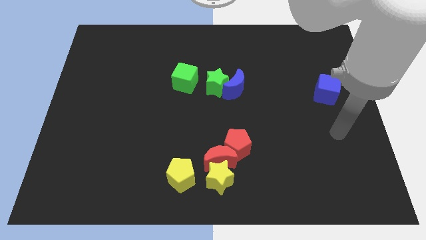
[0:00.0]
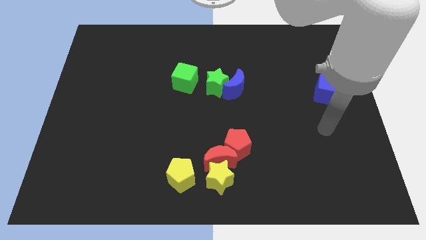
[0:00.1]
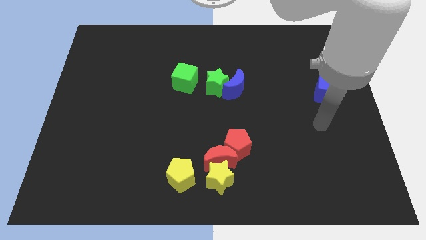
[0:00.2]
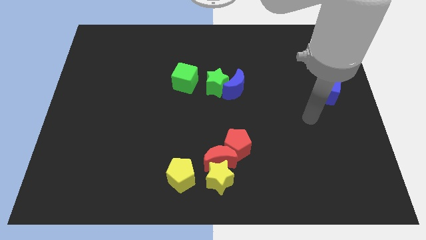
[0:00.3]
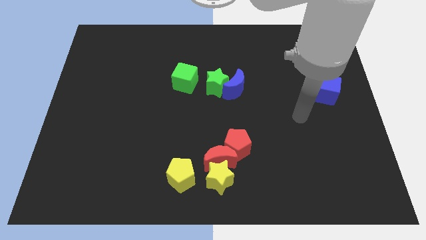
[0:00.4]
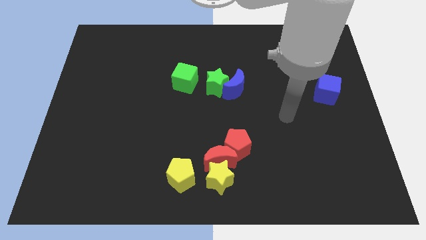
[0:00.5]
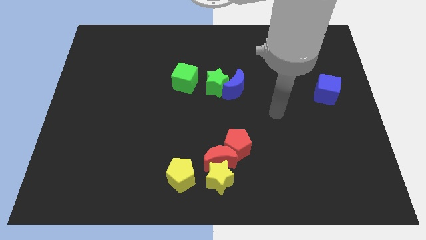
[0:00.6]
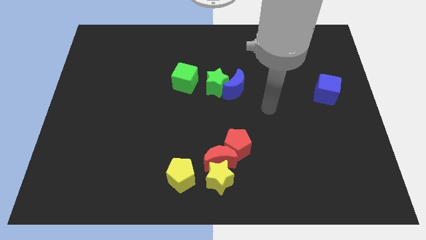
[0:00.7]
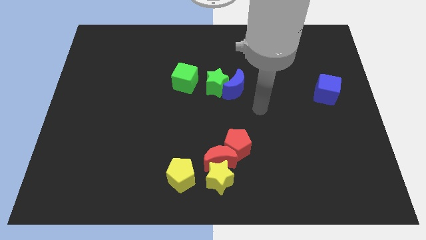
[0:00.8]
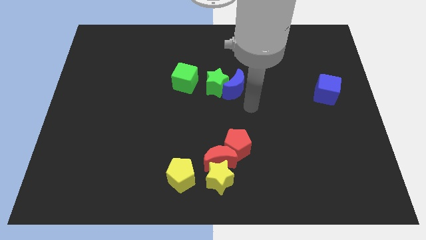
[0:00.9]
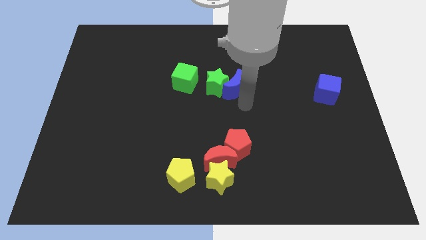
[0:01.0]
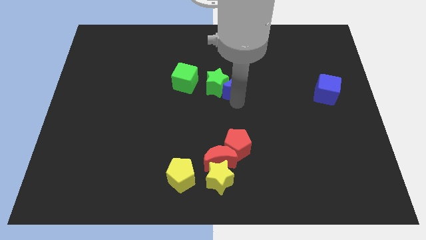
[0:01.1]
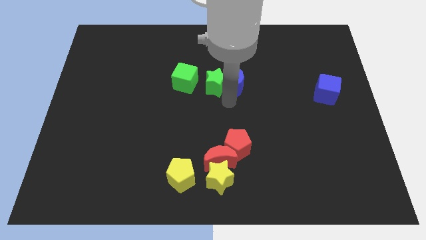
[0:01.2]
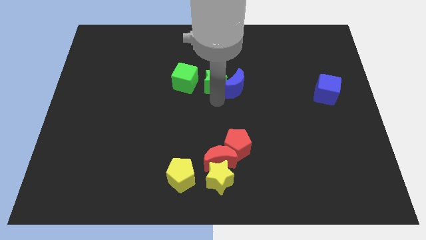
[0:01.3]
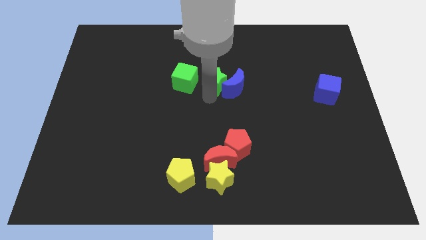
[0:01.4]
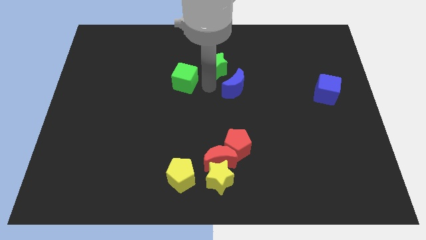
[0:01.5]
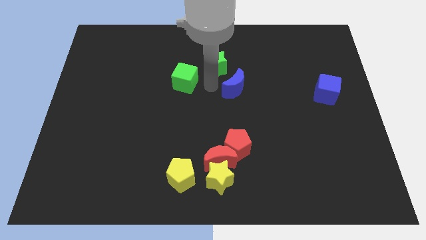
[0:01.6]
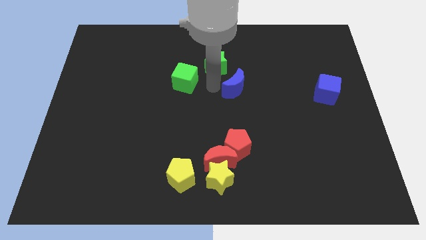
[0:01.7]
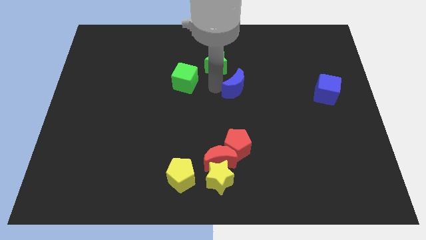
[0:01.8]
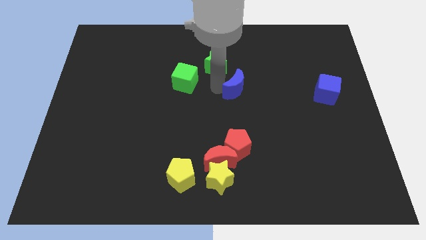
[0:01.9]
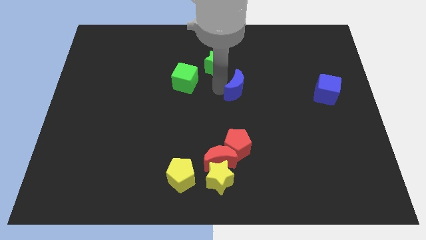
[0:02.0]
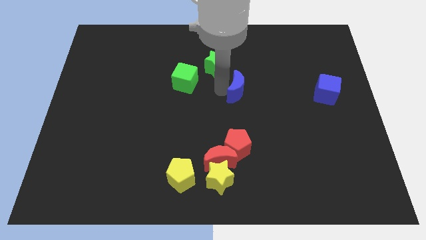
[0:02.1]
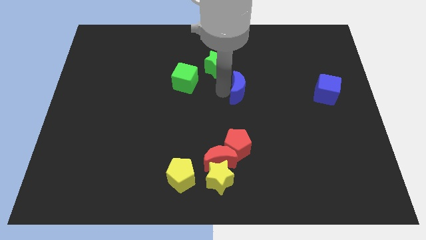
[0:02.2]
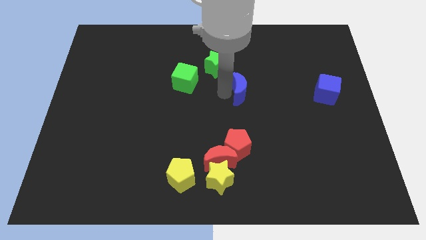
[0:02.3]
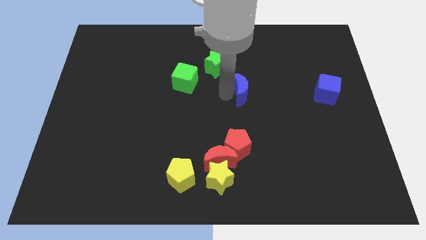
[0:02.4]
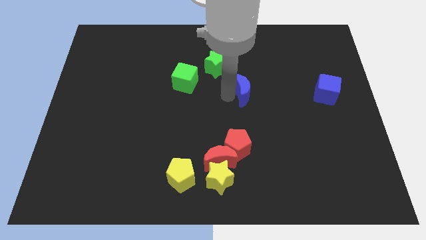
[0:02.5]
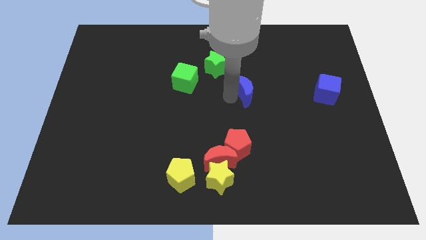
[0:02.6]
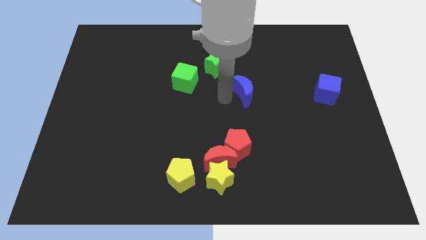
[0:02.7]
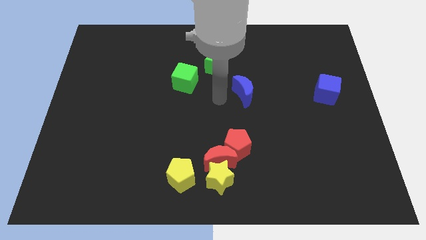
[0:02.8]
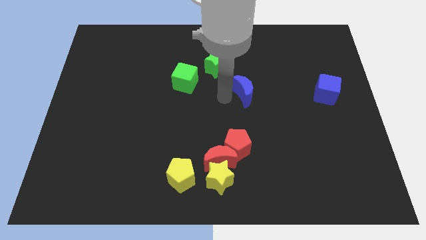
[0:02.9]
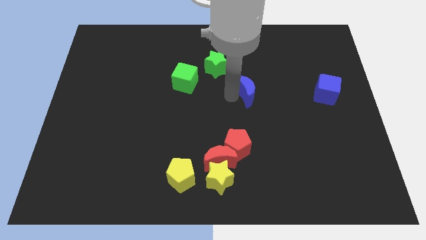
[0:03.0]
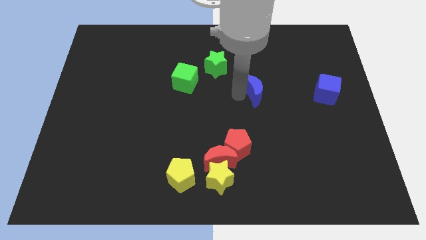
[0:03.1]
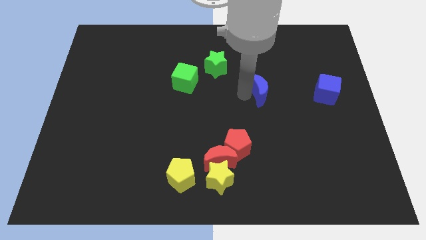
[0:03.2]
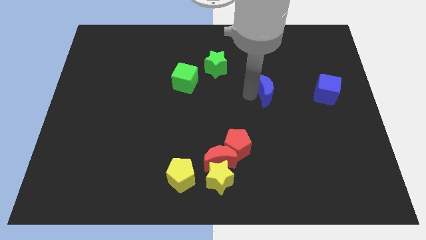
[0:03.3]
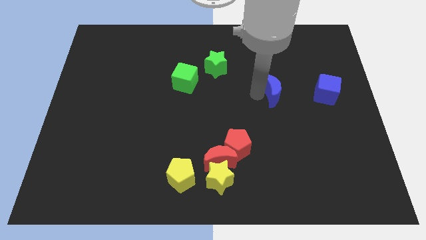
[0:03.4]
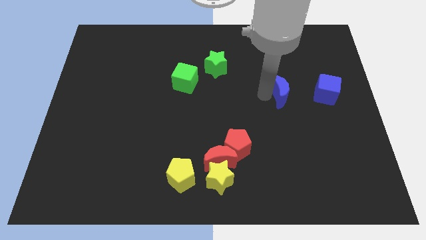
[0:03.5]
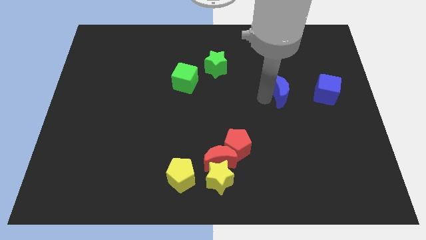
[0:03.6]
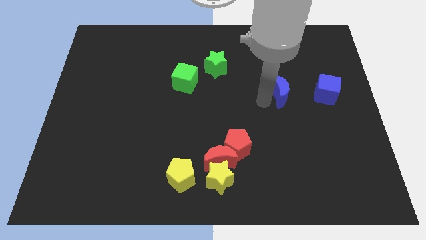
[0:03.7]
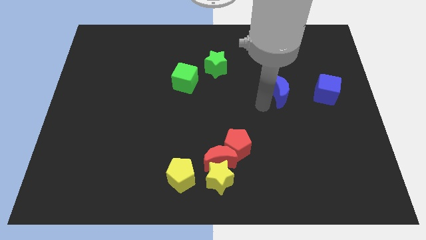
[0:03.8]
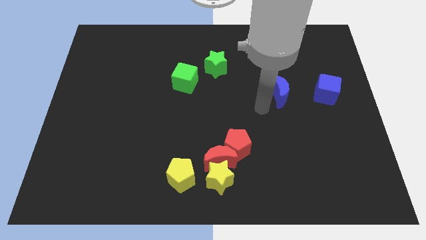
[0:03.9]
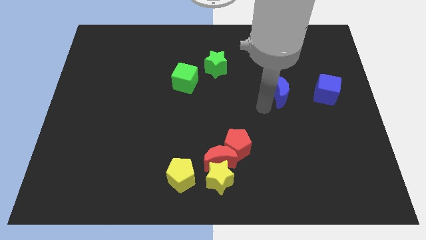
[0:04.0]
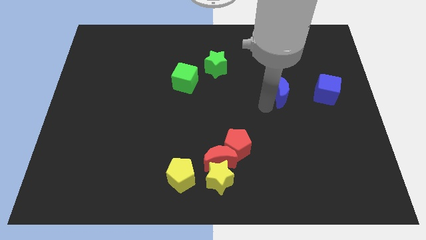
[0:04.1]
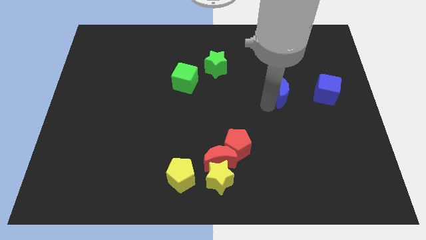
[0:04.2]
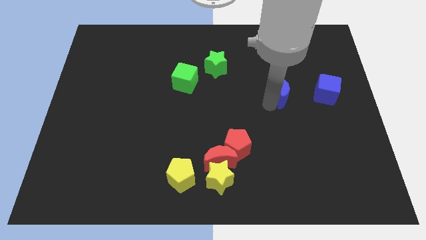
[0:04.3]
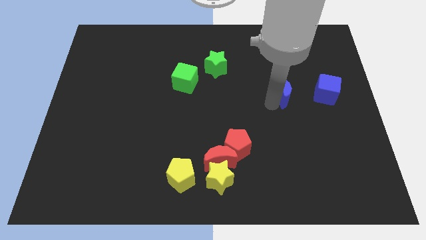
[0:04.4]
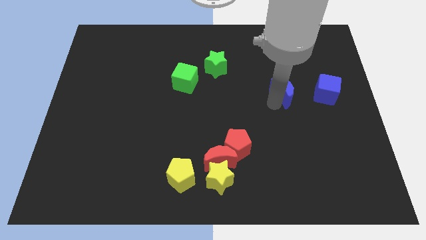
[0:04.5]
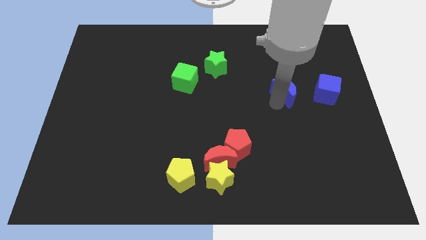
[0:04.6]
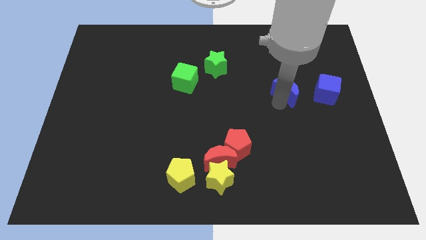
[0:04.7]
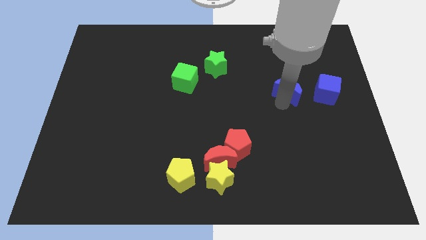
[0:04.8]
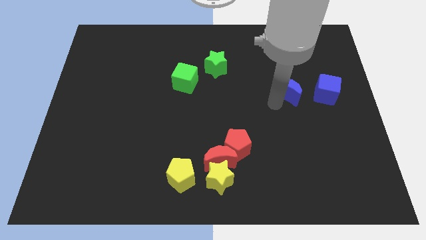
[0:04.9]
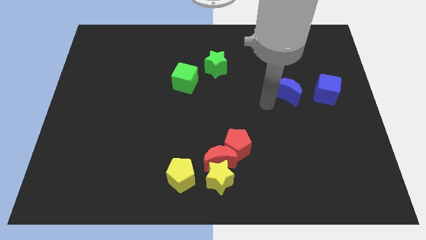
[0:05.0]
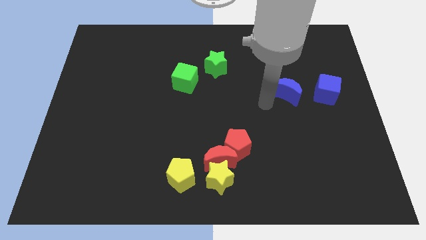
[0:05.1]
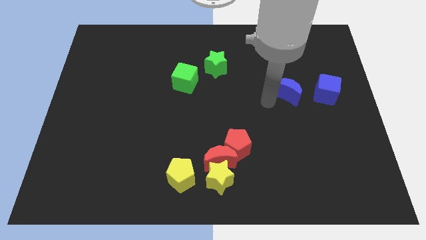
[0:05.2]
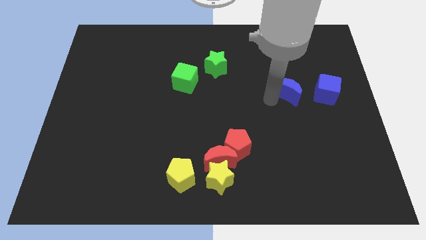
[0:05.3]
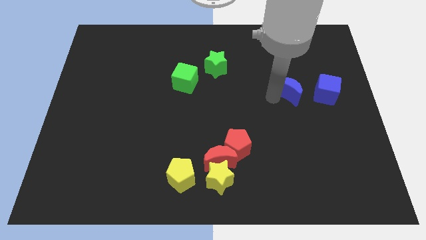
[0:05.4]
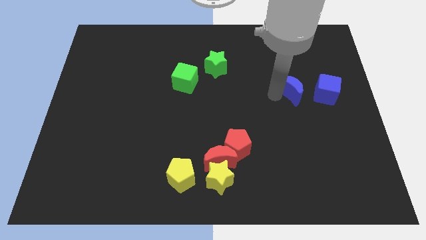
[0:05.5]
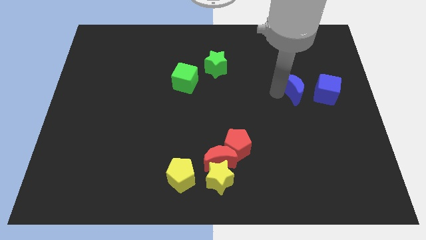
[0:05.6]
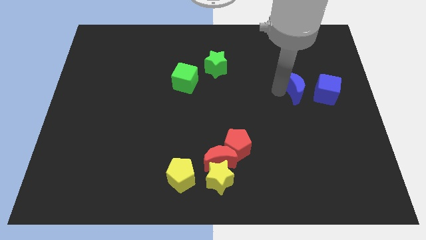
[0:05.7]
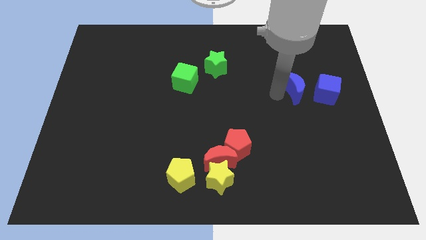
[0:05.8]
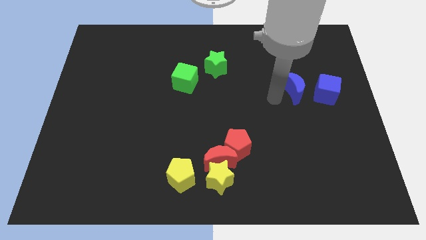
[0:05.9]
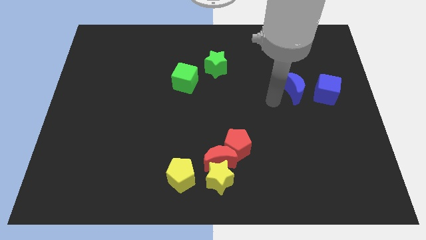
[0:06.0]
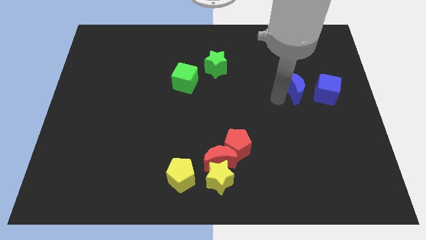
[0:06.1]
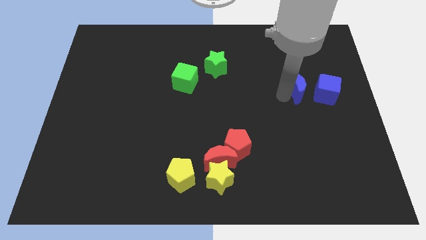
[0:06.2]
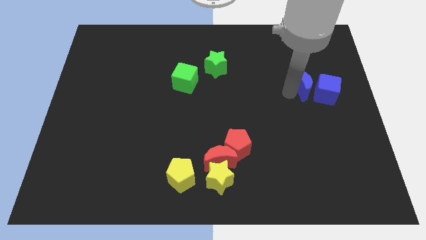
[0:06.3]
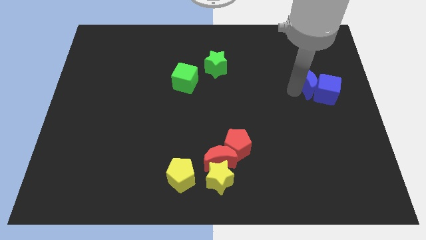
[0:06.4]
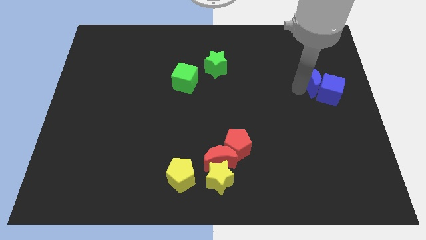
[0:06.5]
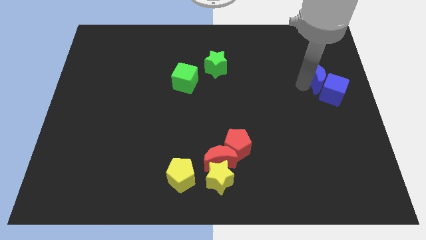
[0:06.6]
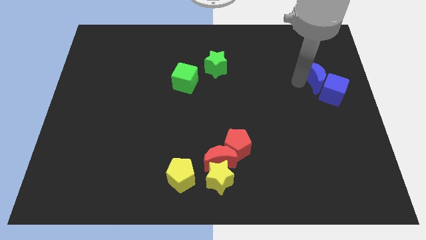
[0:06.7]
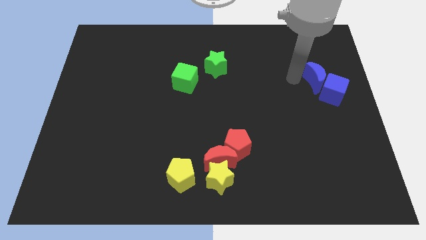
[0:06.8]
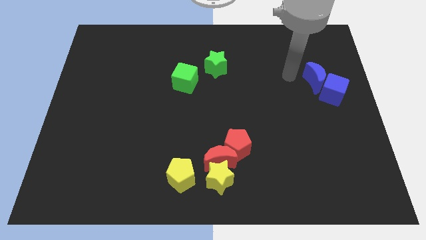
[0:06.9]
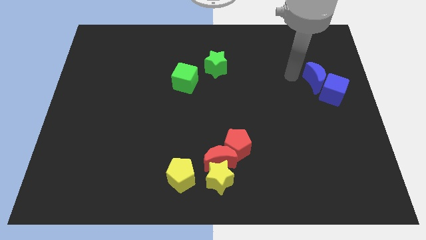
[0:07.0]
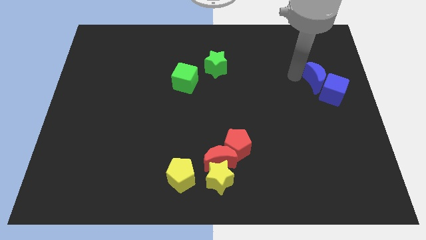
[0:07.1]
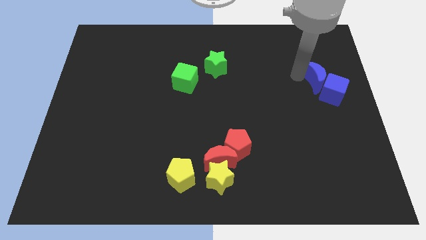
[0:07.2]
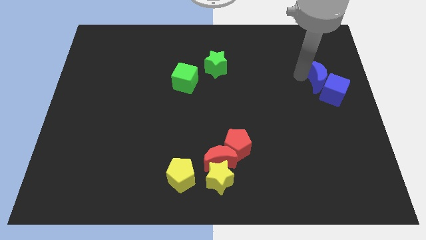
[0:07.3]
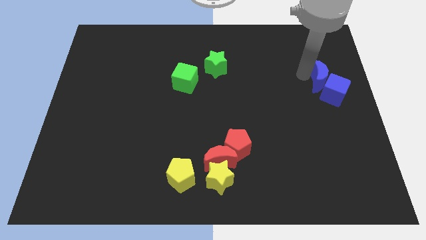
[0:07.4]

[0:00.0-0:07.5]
push the blue moon to the right side of the board
